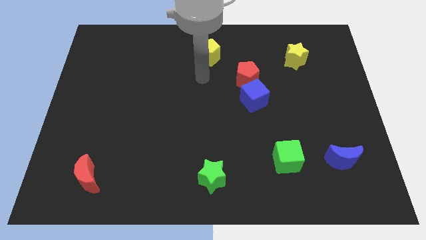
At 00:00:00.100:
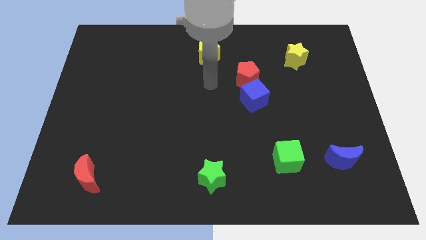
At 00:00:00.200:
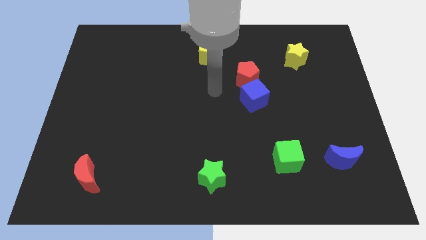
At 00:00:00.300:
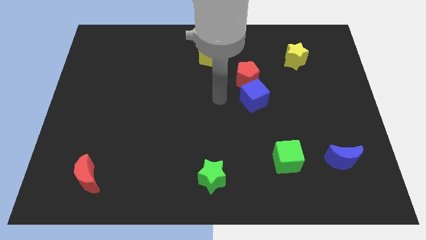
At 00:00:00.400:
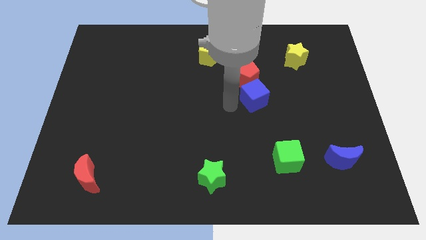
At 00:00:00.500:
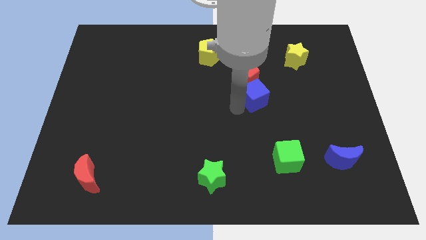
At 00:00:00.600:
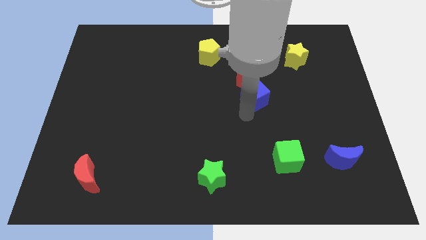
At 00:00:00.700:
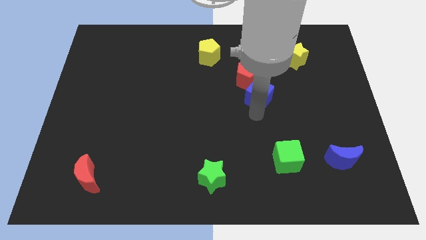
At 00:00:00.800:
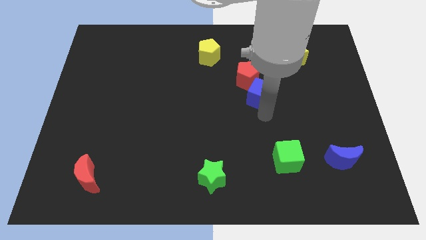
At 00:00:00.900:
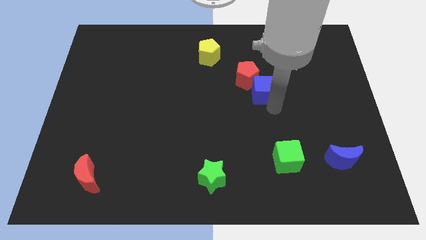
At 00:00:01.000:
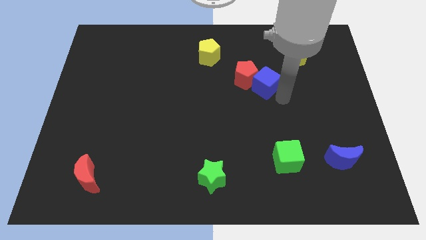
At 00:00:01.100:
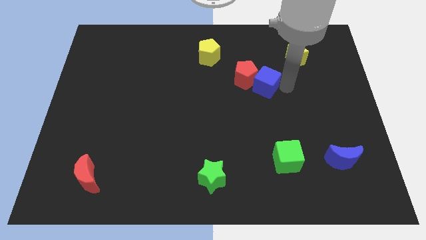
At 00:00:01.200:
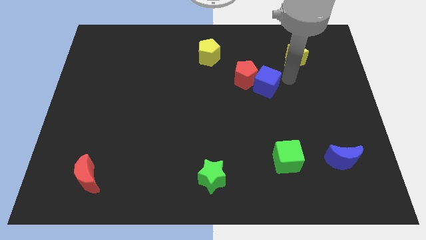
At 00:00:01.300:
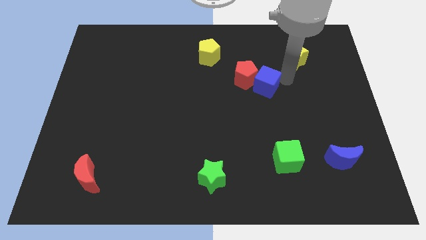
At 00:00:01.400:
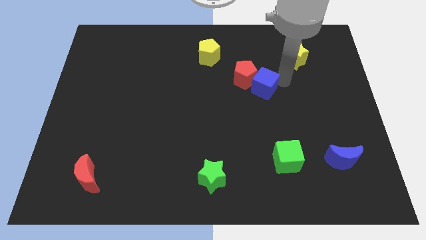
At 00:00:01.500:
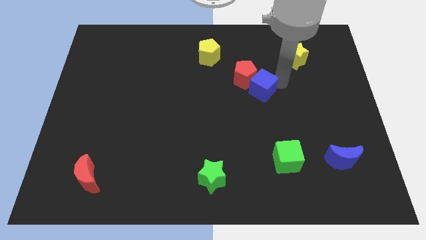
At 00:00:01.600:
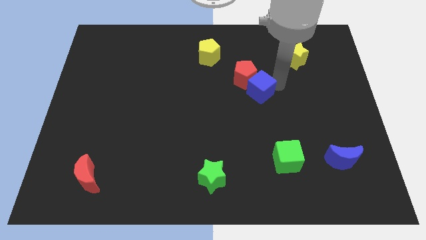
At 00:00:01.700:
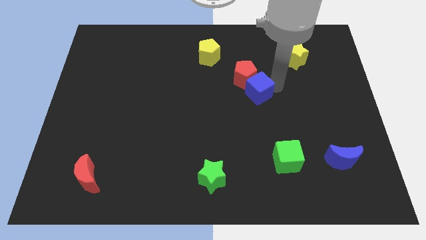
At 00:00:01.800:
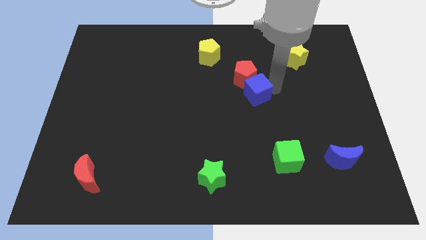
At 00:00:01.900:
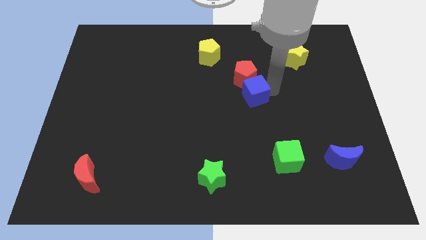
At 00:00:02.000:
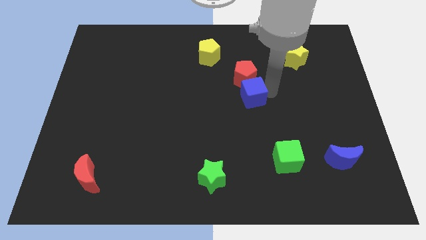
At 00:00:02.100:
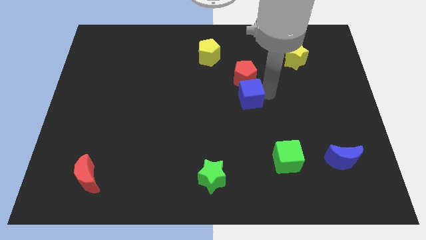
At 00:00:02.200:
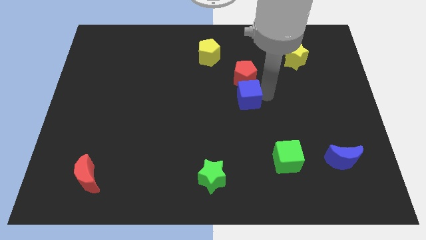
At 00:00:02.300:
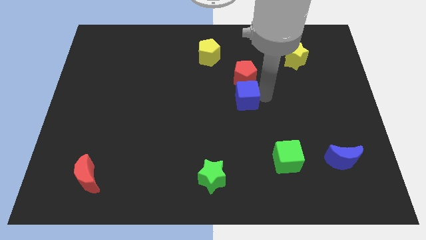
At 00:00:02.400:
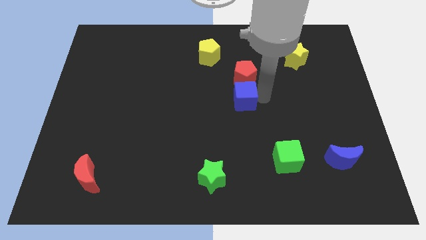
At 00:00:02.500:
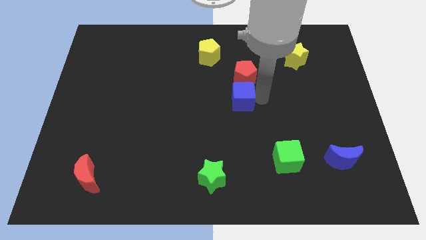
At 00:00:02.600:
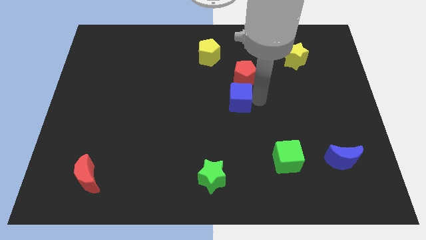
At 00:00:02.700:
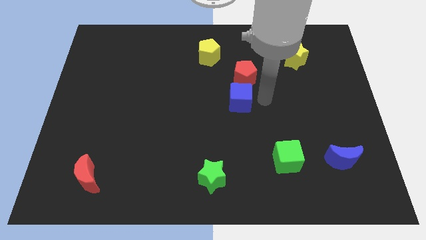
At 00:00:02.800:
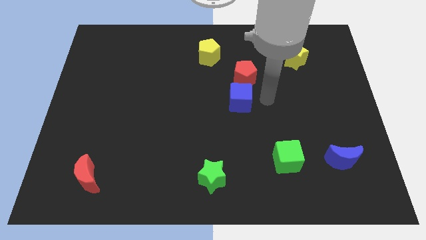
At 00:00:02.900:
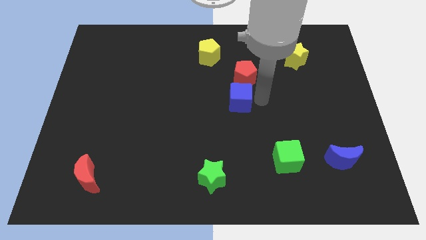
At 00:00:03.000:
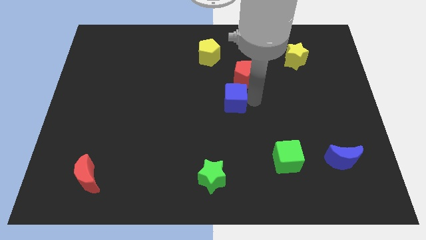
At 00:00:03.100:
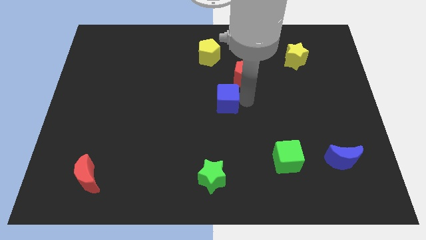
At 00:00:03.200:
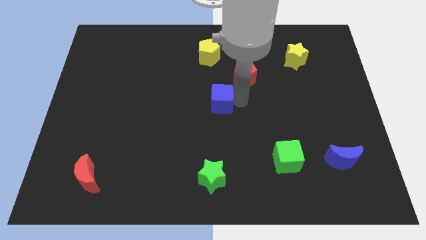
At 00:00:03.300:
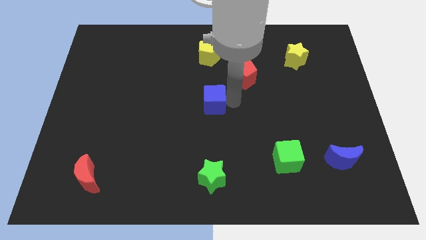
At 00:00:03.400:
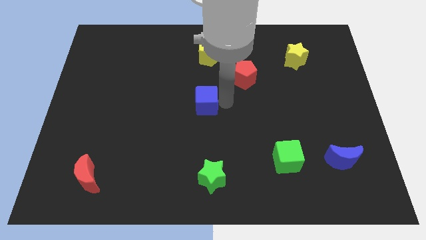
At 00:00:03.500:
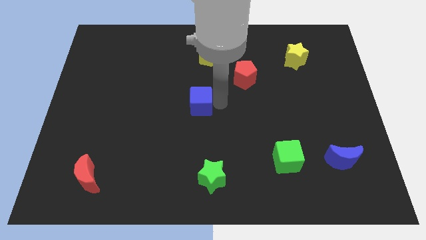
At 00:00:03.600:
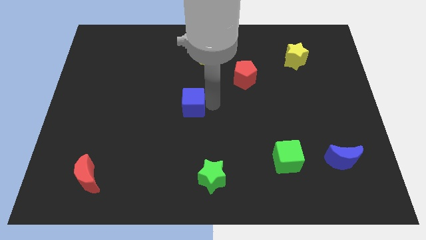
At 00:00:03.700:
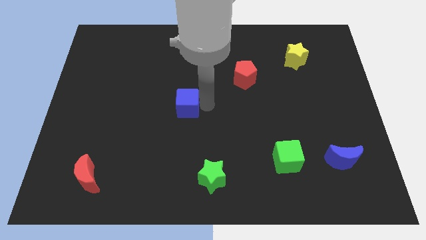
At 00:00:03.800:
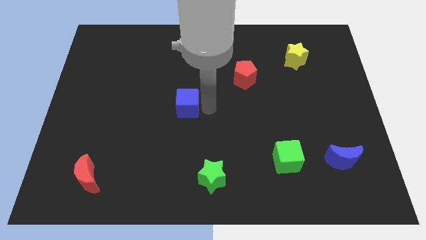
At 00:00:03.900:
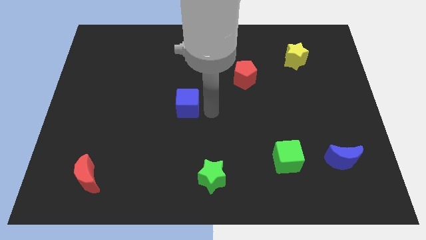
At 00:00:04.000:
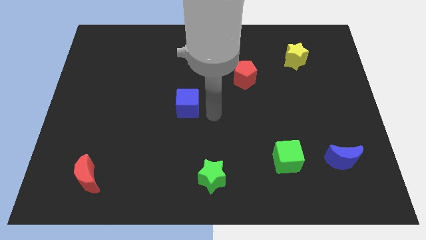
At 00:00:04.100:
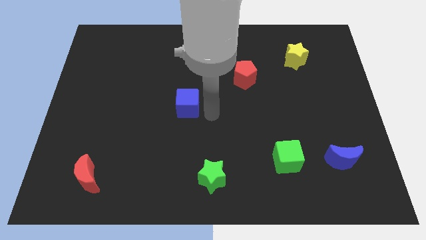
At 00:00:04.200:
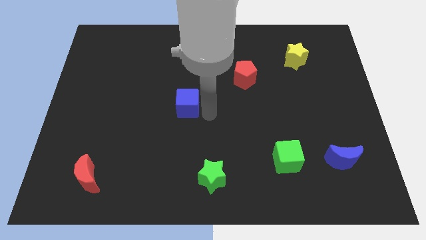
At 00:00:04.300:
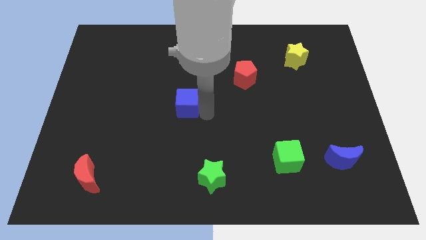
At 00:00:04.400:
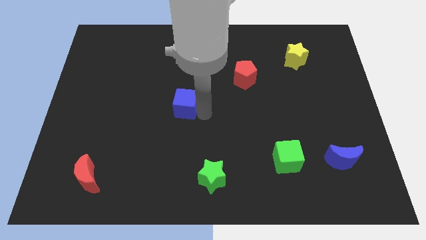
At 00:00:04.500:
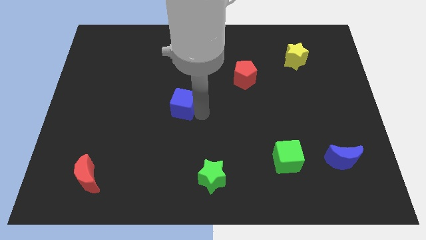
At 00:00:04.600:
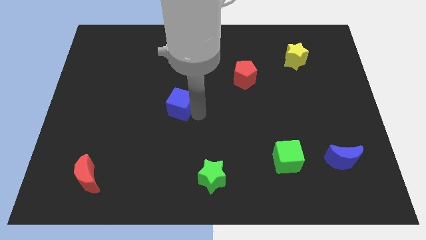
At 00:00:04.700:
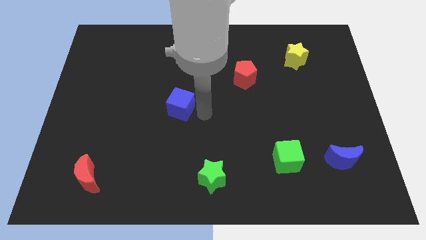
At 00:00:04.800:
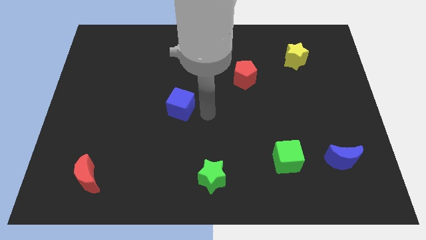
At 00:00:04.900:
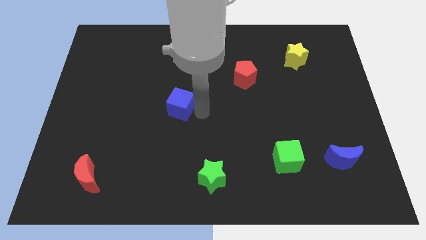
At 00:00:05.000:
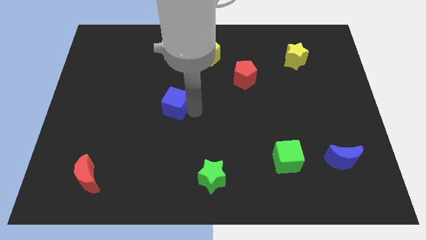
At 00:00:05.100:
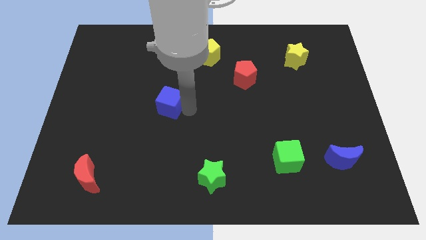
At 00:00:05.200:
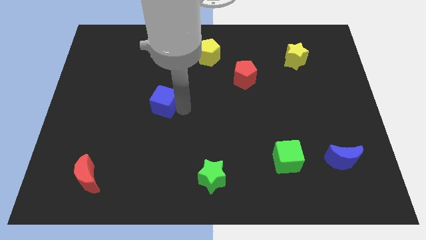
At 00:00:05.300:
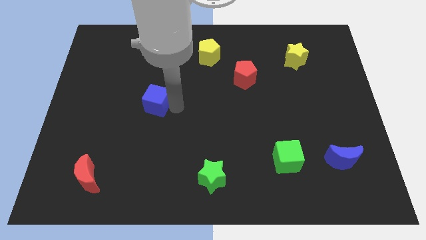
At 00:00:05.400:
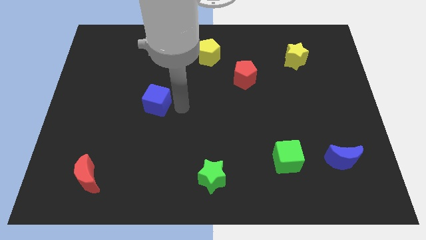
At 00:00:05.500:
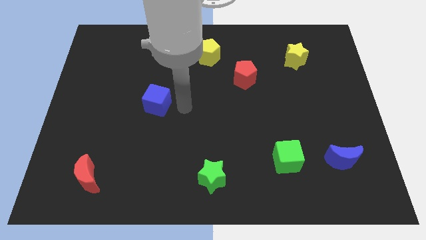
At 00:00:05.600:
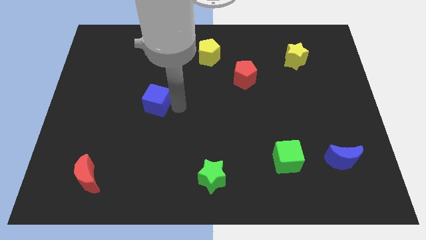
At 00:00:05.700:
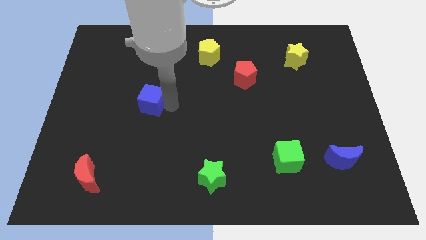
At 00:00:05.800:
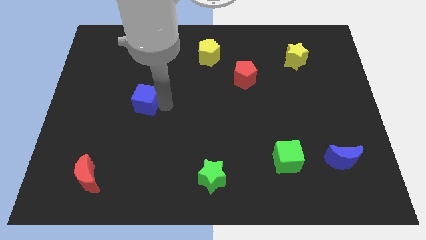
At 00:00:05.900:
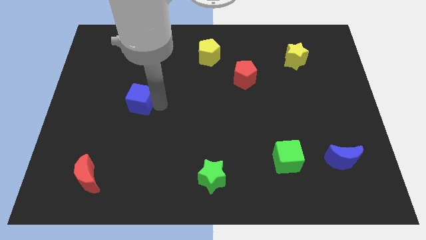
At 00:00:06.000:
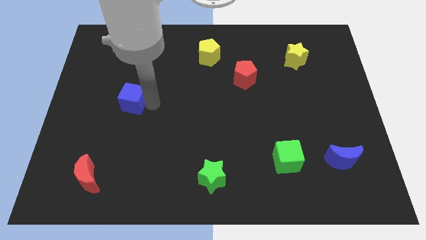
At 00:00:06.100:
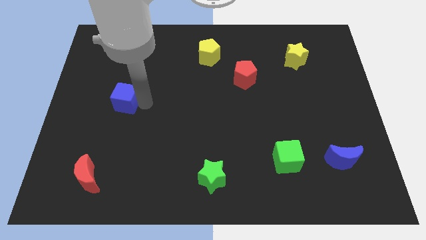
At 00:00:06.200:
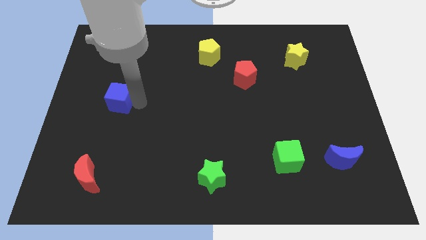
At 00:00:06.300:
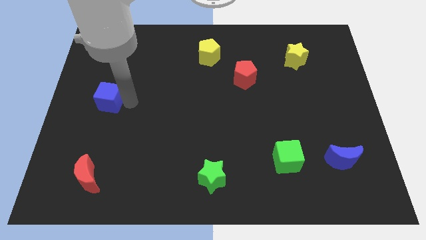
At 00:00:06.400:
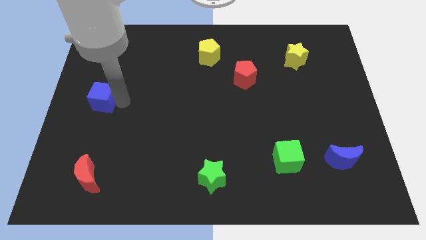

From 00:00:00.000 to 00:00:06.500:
slide the blue cube to the left side
